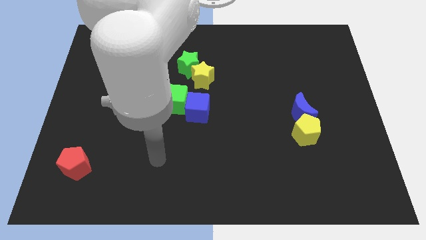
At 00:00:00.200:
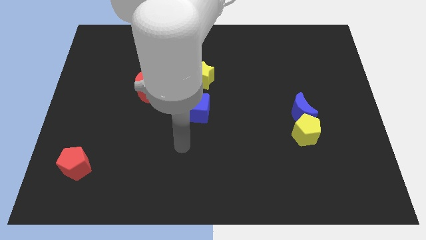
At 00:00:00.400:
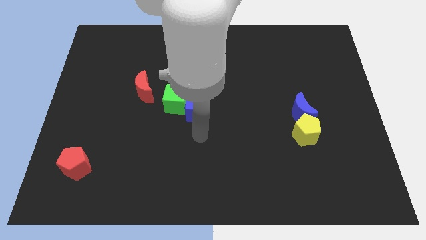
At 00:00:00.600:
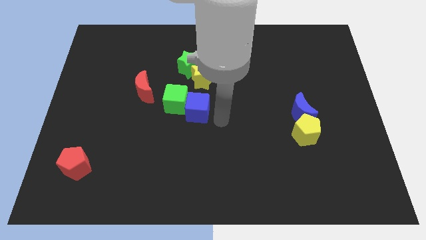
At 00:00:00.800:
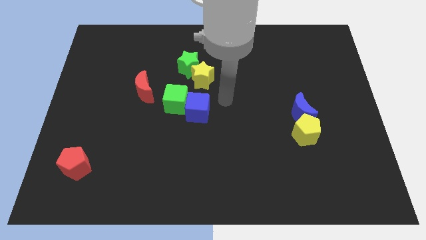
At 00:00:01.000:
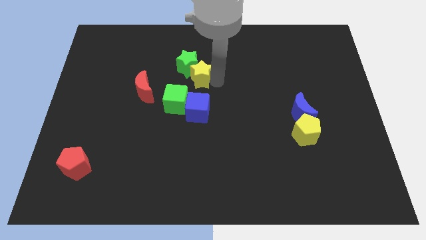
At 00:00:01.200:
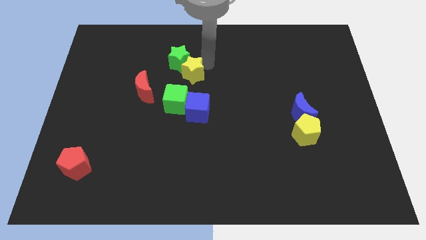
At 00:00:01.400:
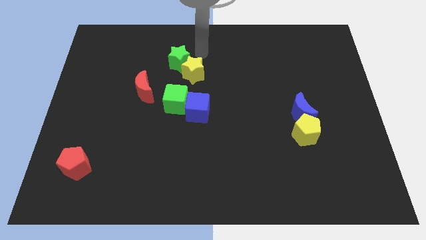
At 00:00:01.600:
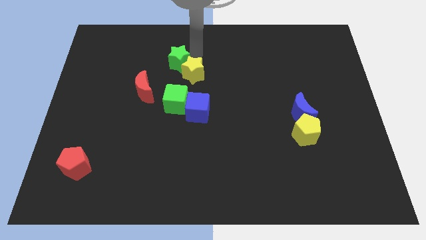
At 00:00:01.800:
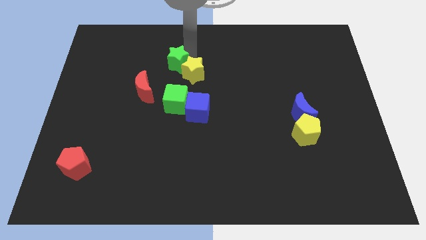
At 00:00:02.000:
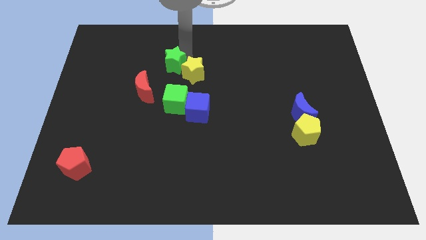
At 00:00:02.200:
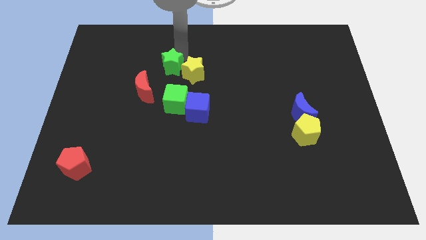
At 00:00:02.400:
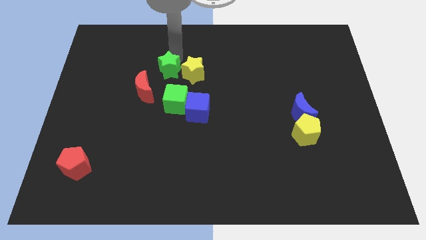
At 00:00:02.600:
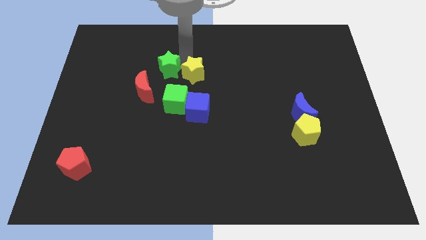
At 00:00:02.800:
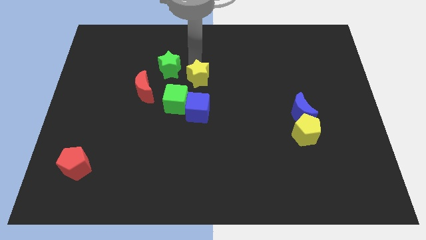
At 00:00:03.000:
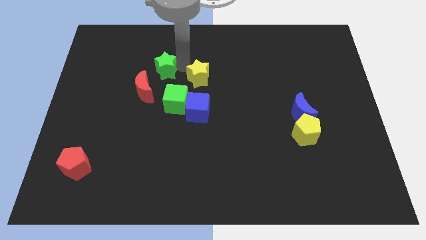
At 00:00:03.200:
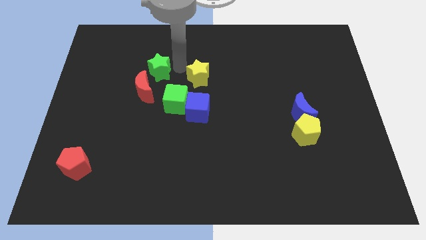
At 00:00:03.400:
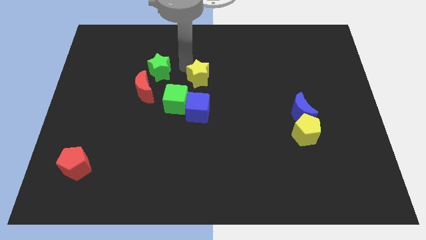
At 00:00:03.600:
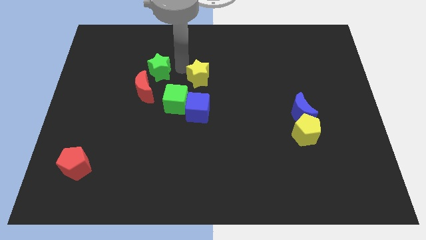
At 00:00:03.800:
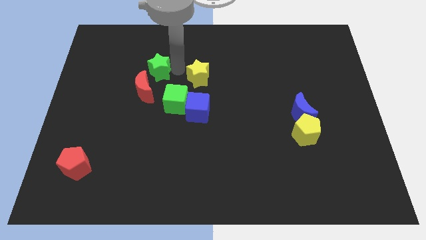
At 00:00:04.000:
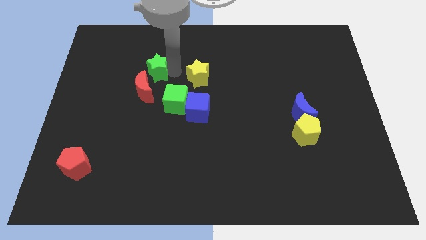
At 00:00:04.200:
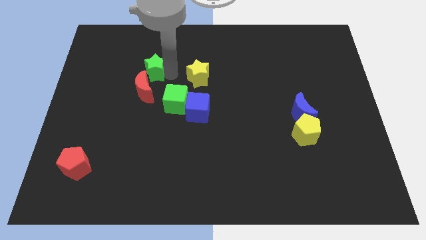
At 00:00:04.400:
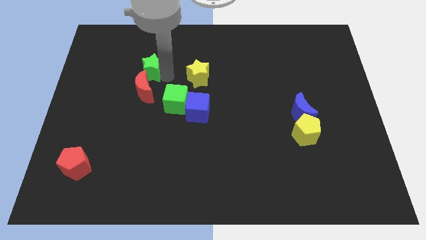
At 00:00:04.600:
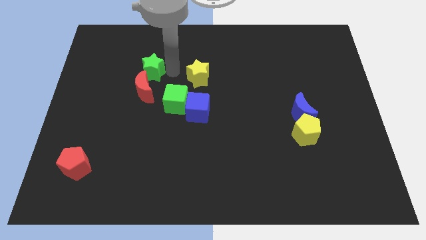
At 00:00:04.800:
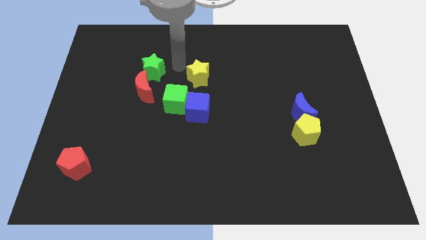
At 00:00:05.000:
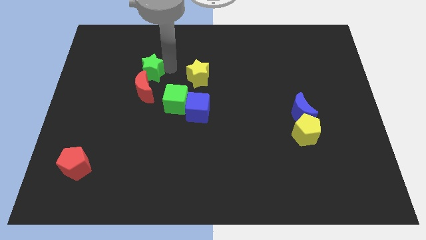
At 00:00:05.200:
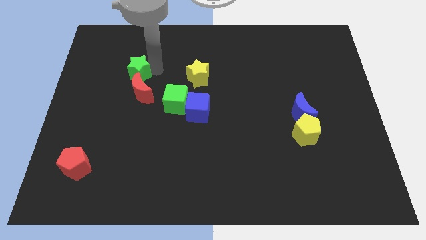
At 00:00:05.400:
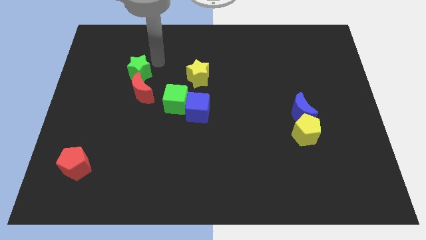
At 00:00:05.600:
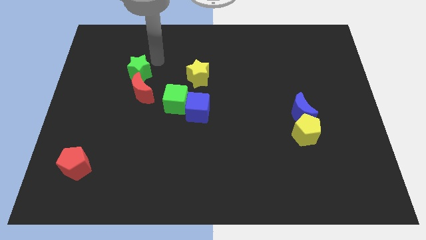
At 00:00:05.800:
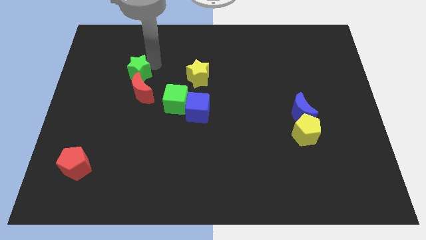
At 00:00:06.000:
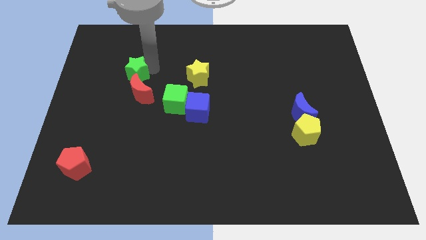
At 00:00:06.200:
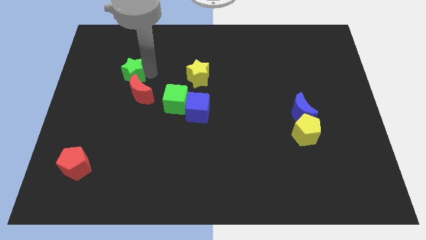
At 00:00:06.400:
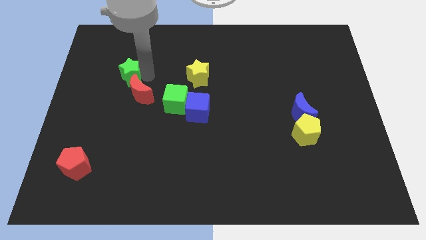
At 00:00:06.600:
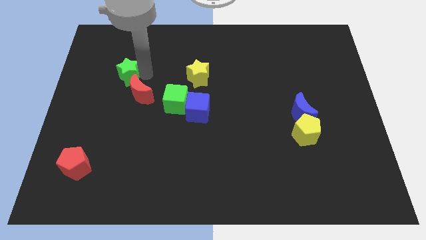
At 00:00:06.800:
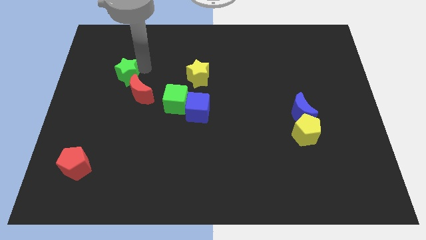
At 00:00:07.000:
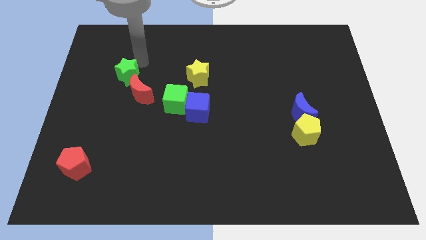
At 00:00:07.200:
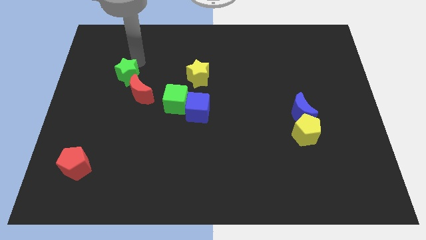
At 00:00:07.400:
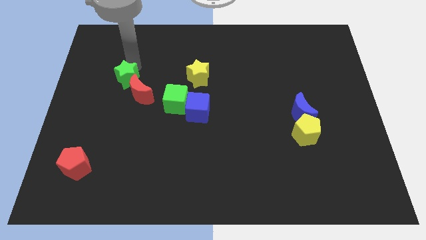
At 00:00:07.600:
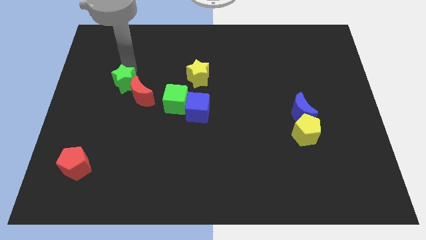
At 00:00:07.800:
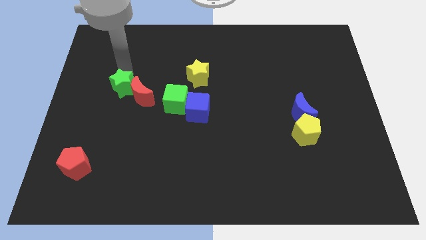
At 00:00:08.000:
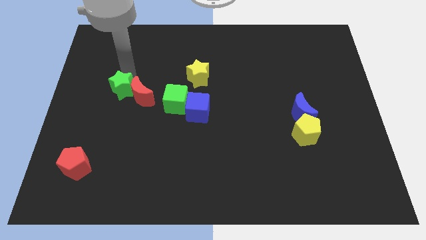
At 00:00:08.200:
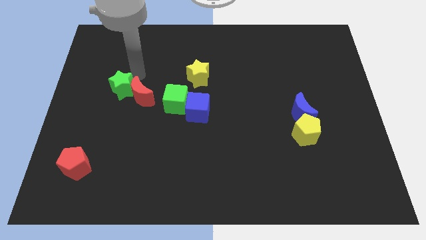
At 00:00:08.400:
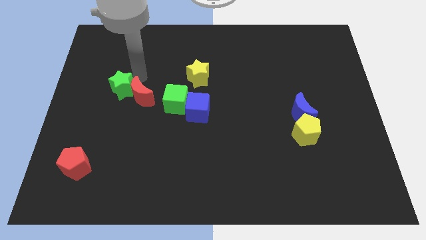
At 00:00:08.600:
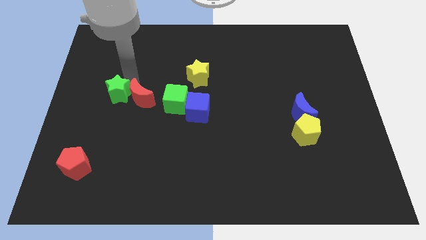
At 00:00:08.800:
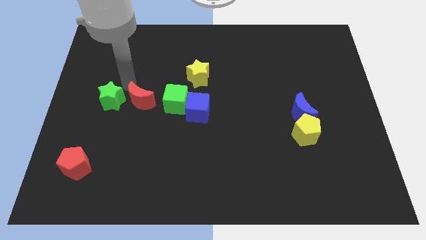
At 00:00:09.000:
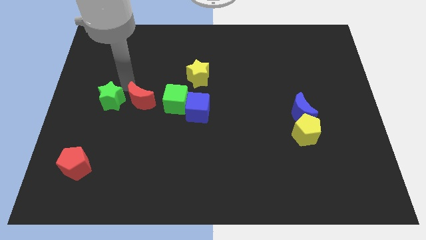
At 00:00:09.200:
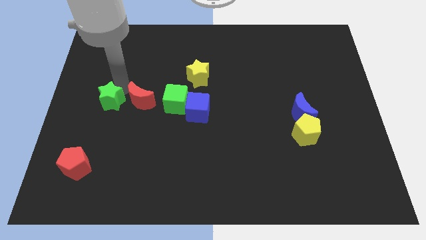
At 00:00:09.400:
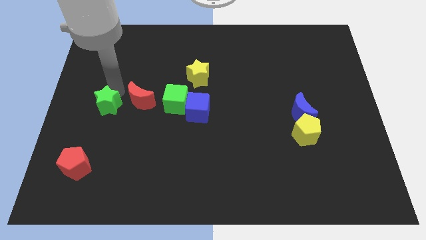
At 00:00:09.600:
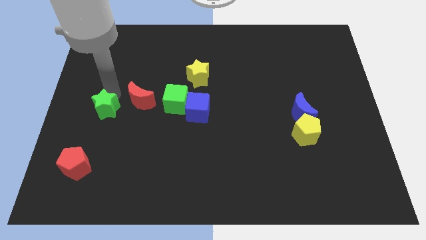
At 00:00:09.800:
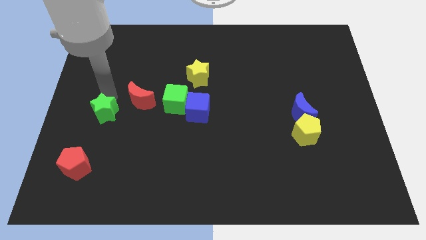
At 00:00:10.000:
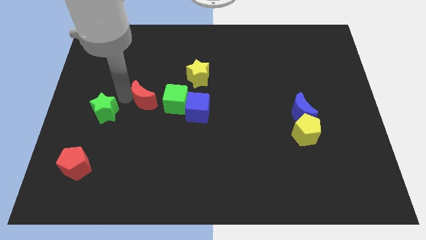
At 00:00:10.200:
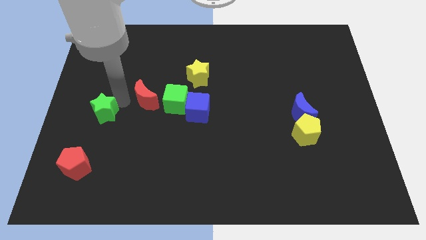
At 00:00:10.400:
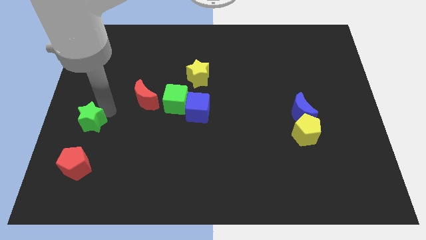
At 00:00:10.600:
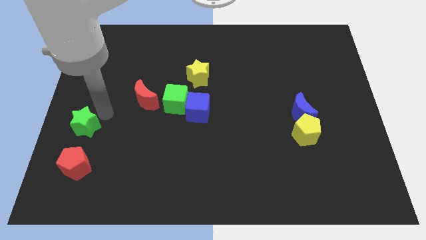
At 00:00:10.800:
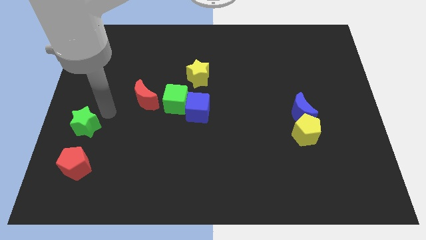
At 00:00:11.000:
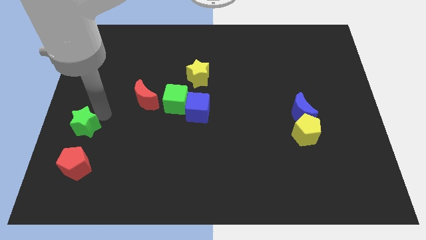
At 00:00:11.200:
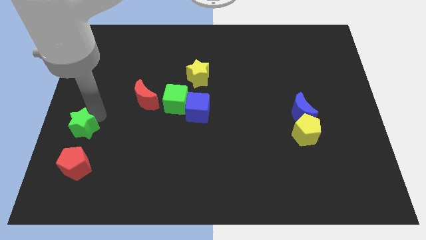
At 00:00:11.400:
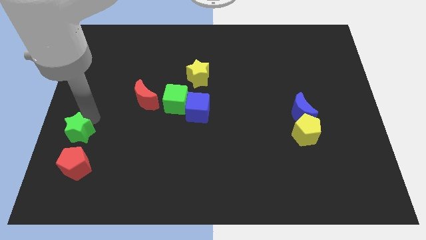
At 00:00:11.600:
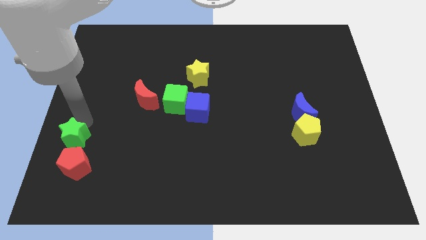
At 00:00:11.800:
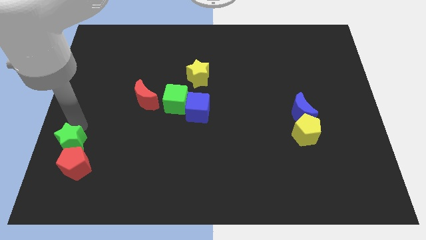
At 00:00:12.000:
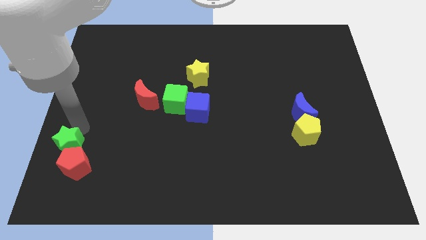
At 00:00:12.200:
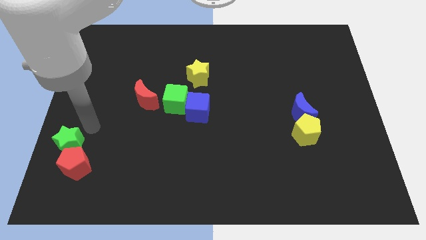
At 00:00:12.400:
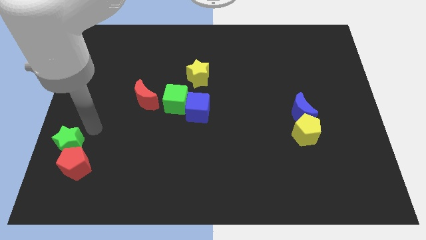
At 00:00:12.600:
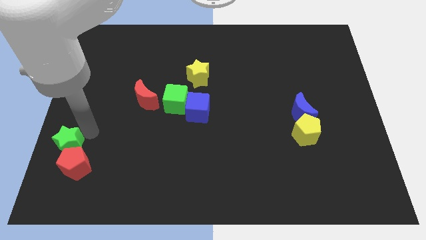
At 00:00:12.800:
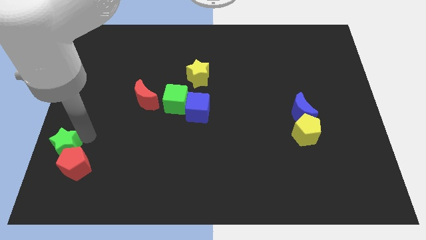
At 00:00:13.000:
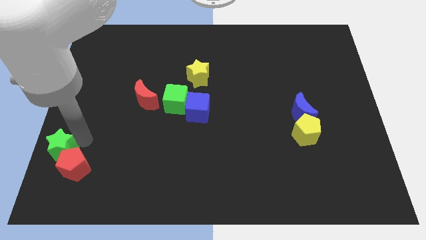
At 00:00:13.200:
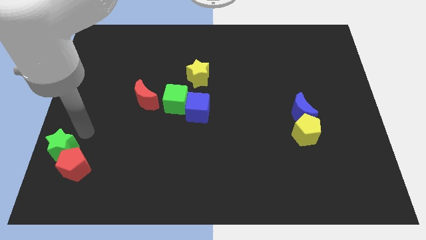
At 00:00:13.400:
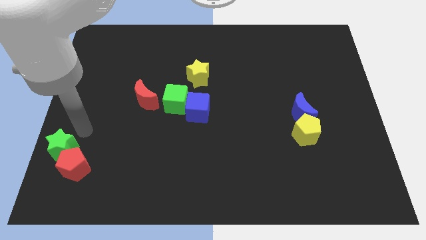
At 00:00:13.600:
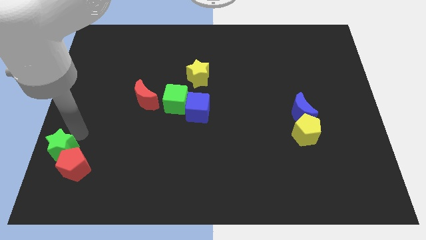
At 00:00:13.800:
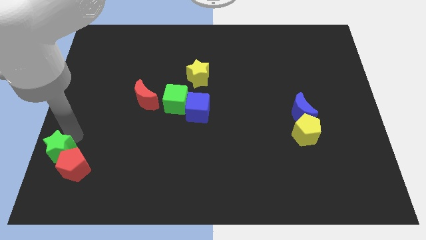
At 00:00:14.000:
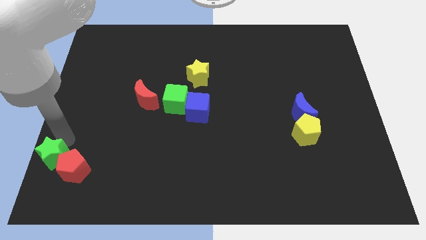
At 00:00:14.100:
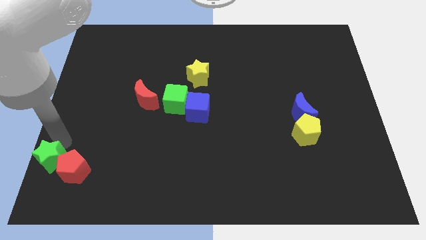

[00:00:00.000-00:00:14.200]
move the green star to the bottom left corner
